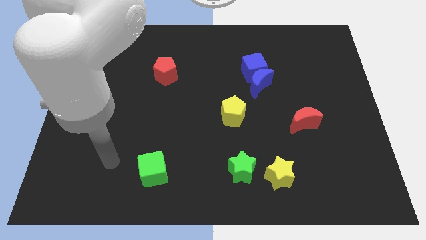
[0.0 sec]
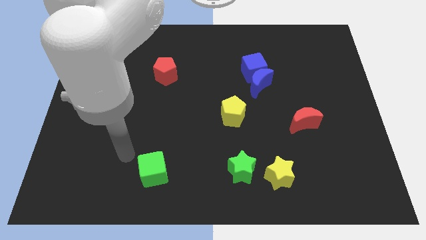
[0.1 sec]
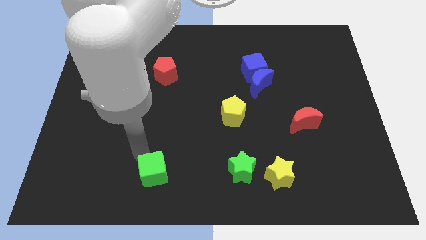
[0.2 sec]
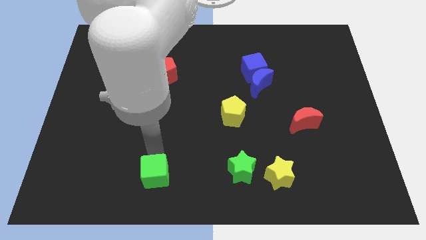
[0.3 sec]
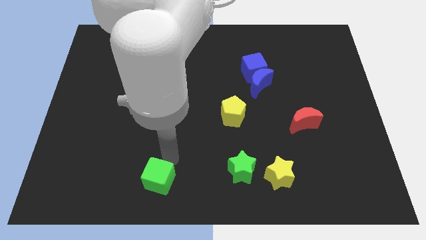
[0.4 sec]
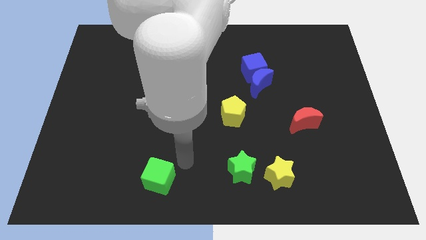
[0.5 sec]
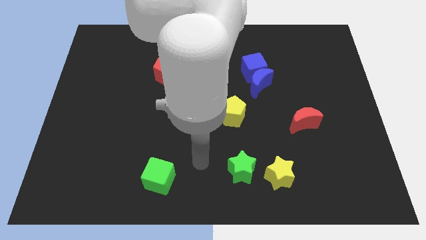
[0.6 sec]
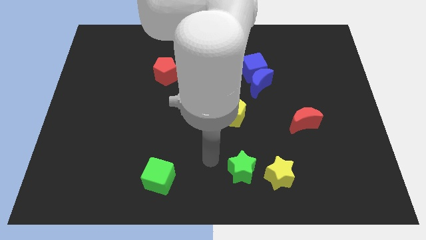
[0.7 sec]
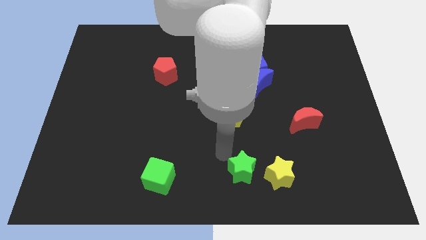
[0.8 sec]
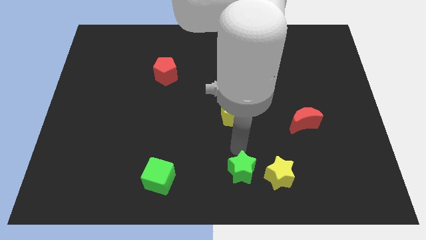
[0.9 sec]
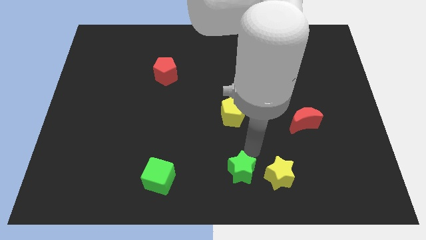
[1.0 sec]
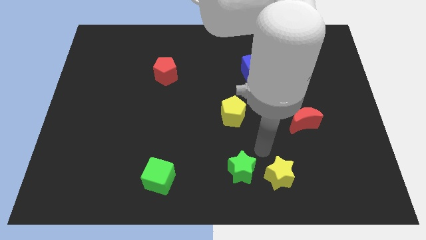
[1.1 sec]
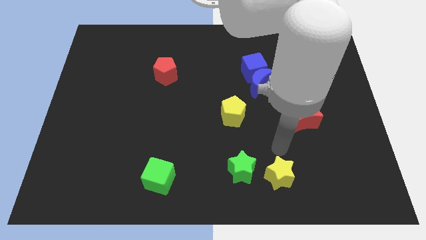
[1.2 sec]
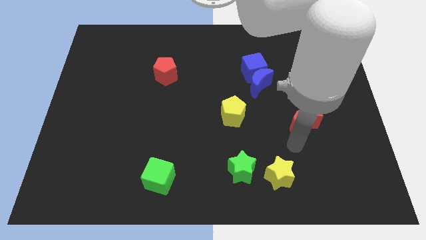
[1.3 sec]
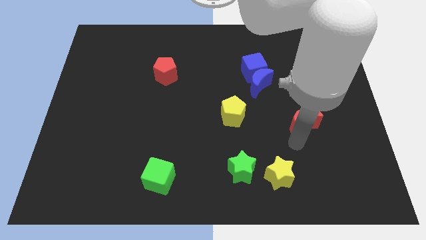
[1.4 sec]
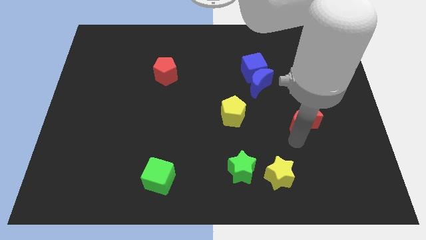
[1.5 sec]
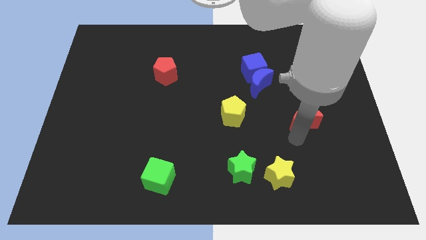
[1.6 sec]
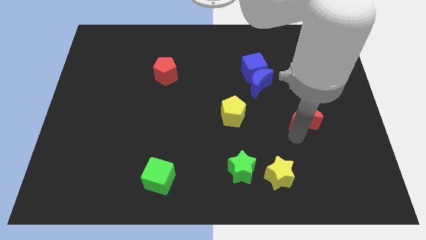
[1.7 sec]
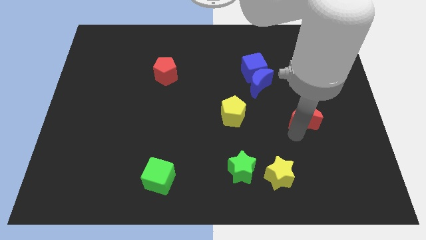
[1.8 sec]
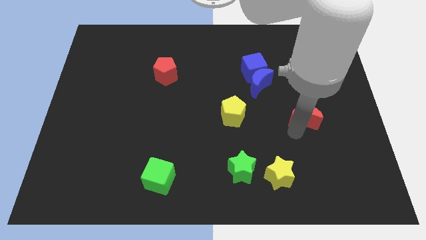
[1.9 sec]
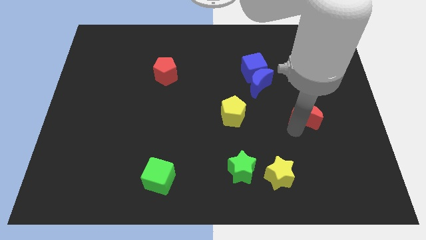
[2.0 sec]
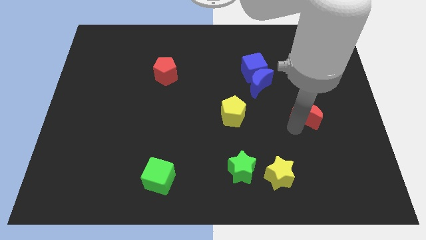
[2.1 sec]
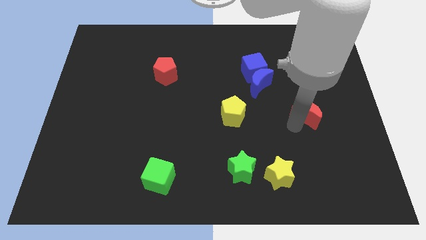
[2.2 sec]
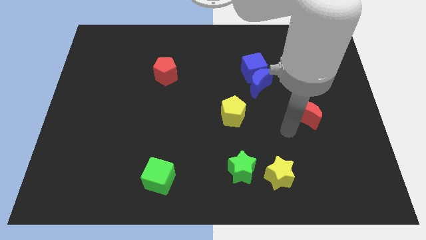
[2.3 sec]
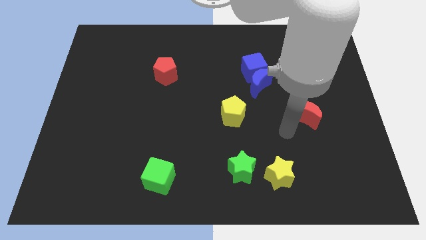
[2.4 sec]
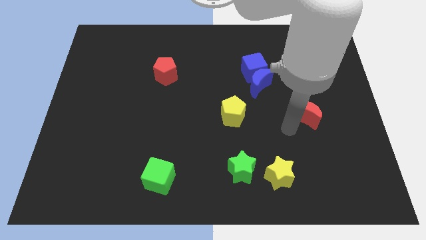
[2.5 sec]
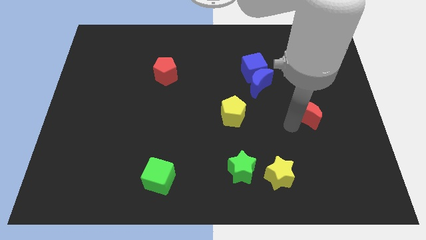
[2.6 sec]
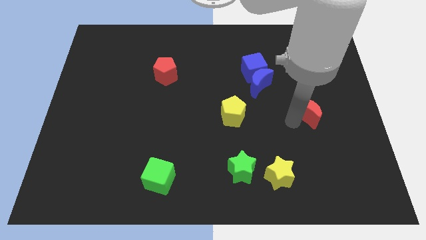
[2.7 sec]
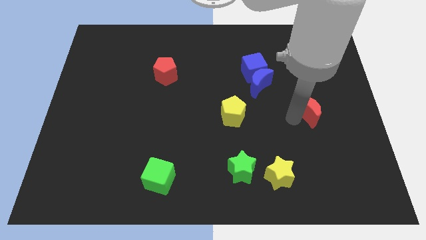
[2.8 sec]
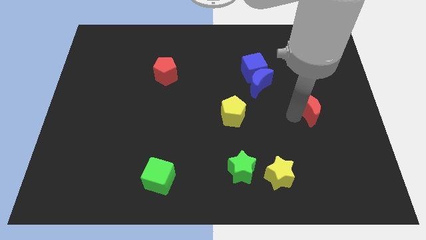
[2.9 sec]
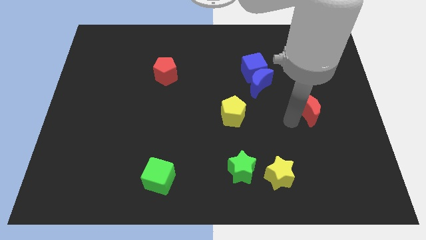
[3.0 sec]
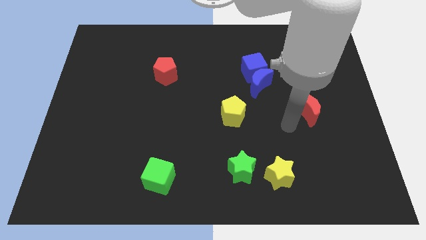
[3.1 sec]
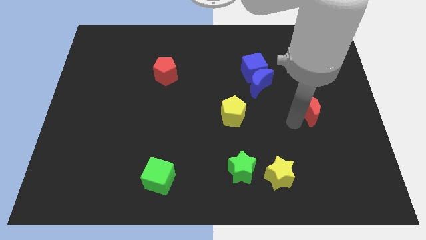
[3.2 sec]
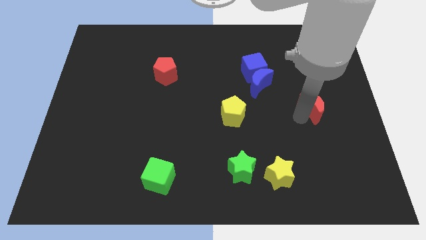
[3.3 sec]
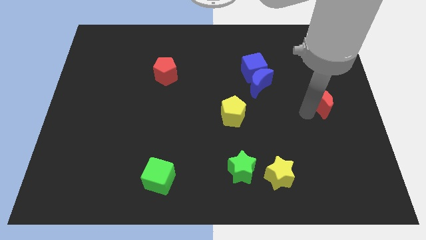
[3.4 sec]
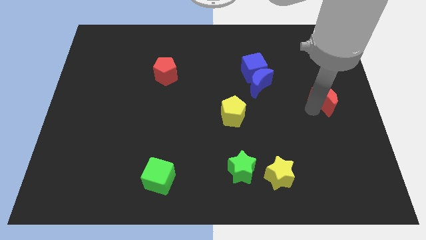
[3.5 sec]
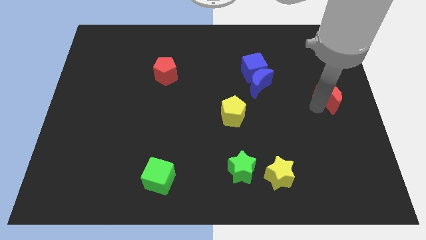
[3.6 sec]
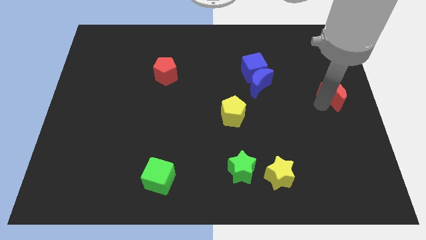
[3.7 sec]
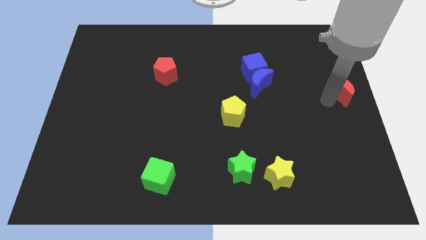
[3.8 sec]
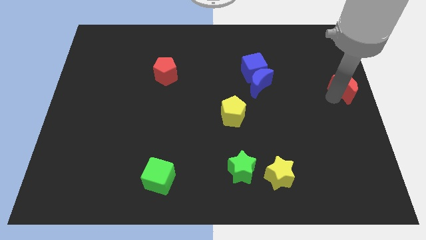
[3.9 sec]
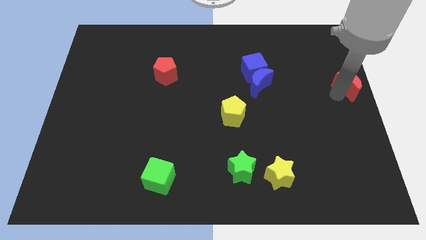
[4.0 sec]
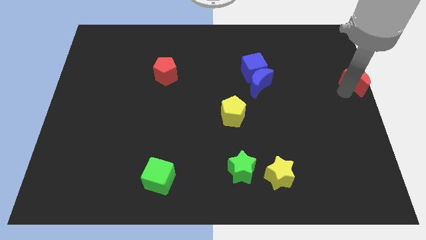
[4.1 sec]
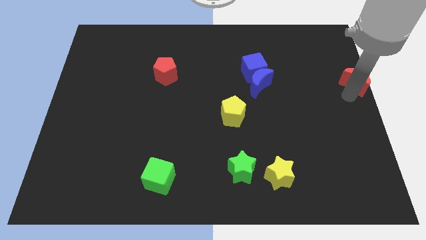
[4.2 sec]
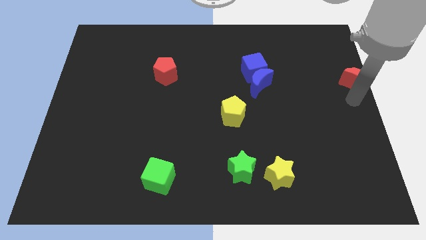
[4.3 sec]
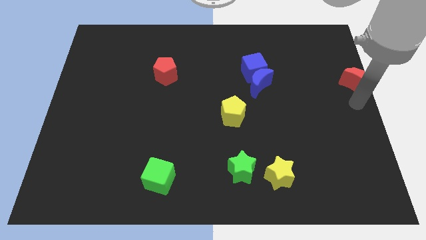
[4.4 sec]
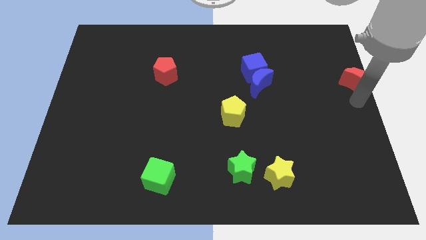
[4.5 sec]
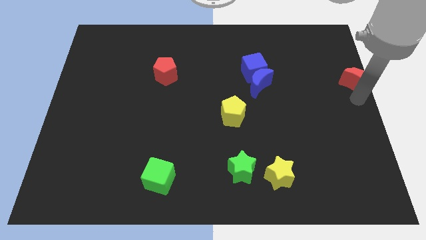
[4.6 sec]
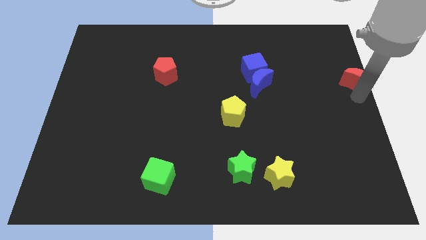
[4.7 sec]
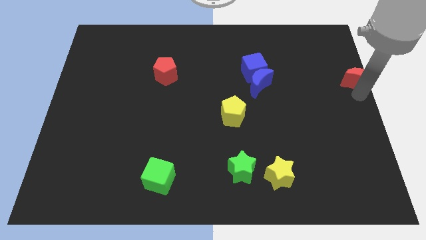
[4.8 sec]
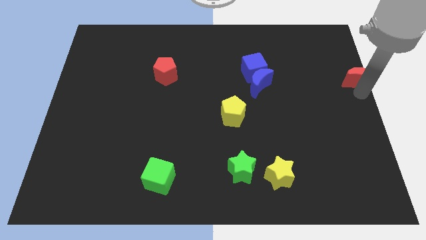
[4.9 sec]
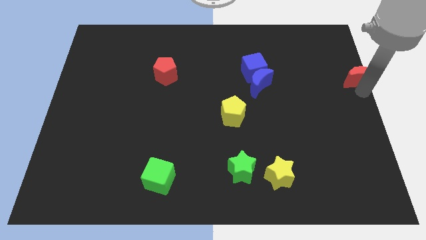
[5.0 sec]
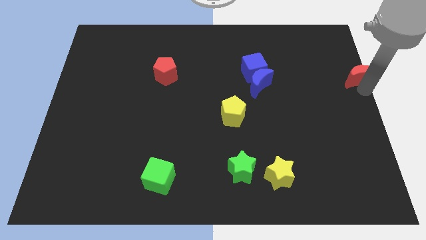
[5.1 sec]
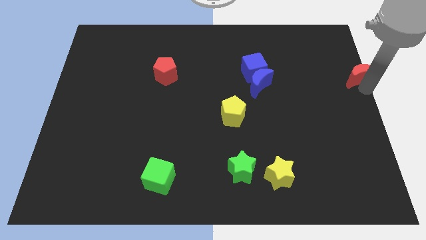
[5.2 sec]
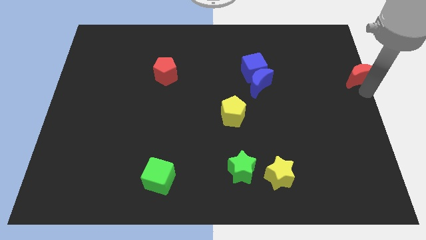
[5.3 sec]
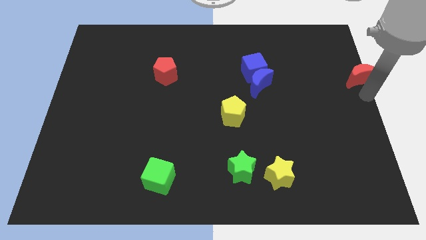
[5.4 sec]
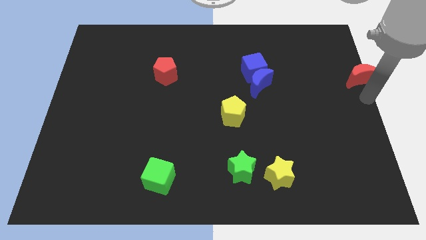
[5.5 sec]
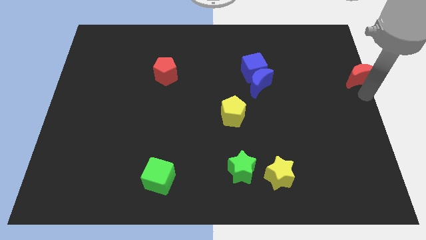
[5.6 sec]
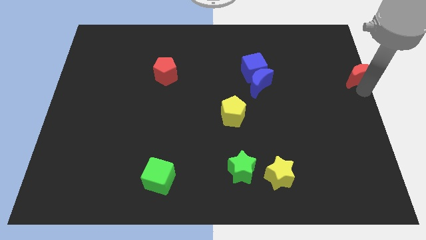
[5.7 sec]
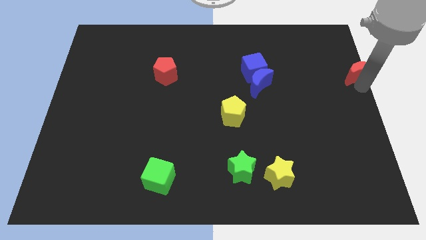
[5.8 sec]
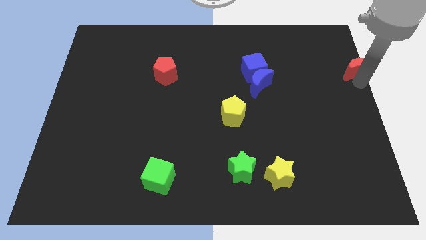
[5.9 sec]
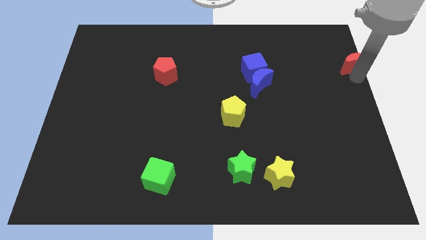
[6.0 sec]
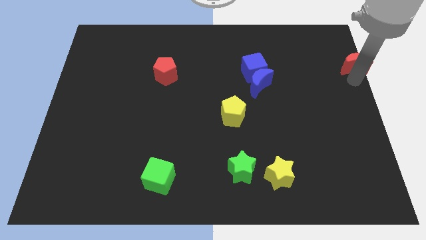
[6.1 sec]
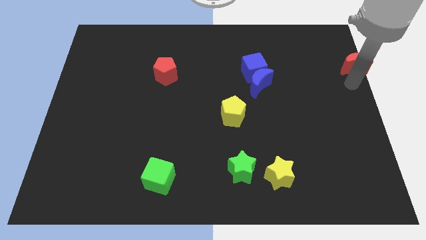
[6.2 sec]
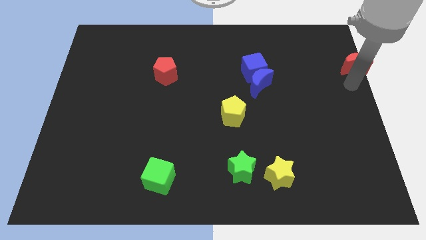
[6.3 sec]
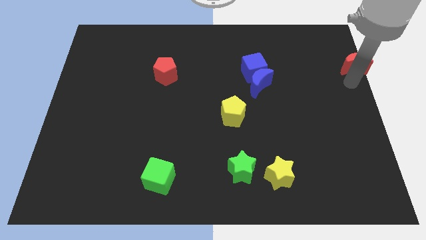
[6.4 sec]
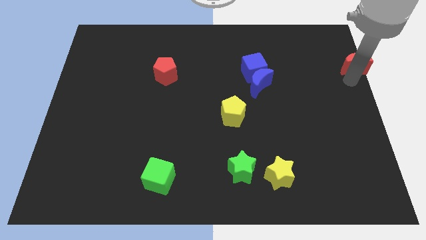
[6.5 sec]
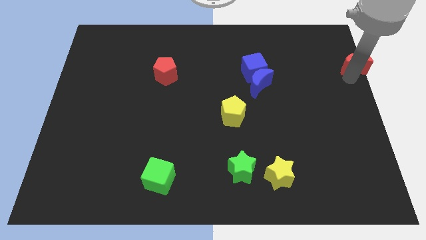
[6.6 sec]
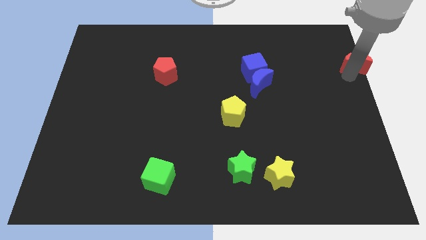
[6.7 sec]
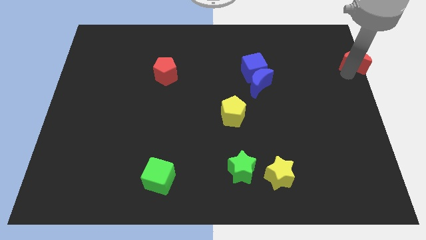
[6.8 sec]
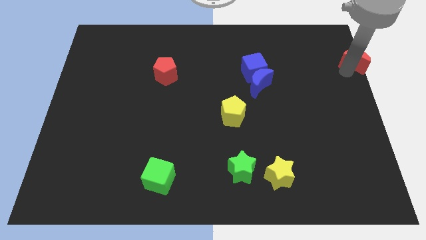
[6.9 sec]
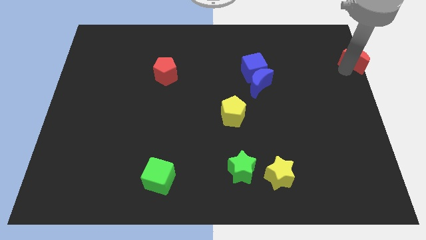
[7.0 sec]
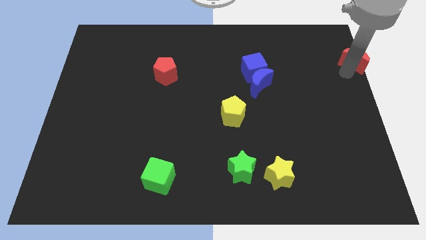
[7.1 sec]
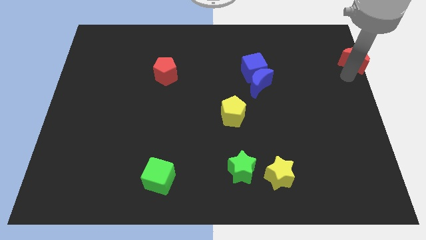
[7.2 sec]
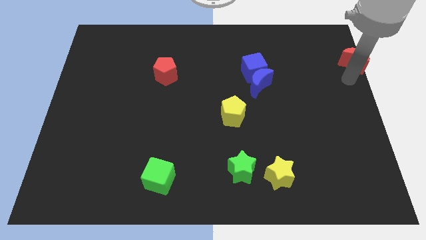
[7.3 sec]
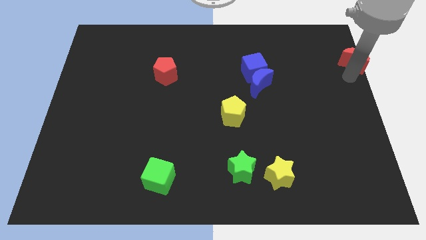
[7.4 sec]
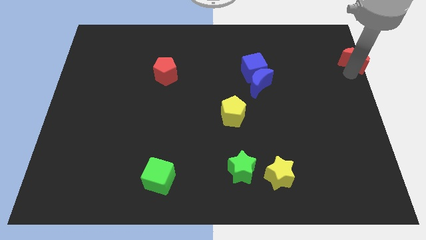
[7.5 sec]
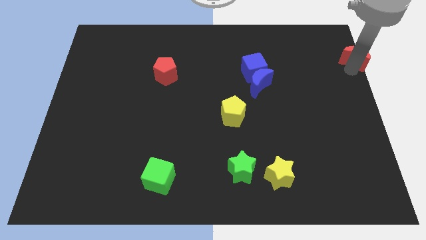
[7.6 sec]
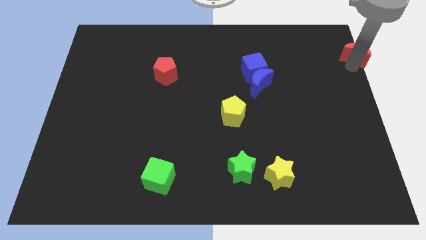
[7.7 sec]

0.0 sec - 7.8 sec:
push the red moon to the upper right corner

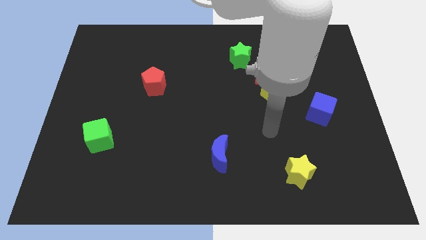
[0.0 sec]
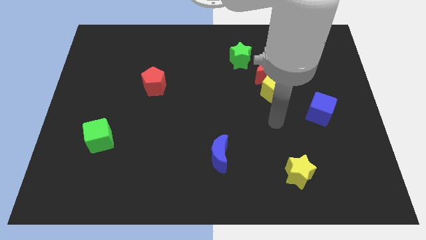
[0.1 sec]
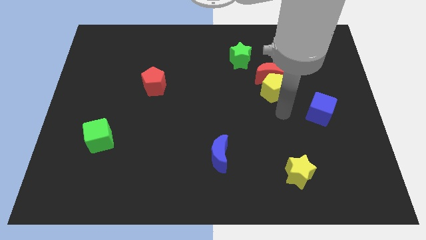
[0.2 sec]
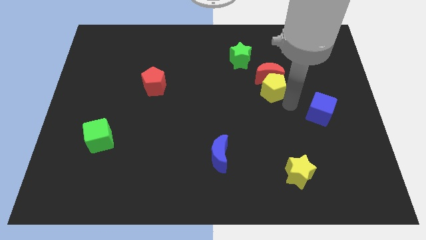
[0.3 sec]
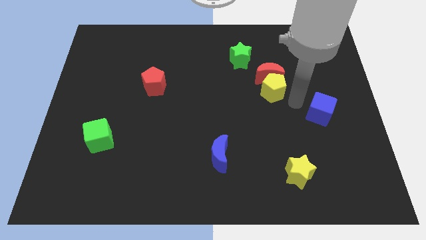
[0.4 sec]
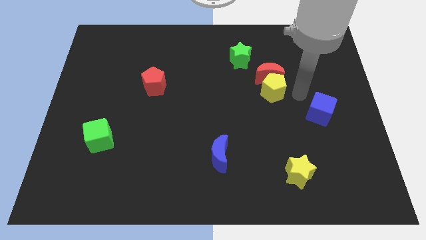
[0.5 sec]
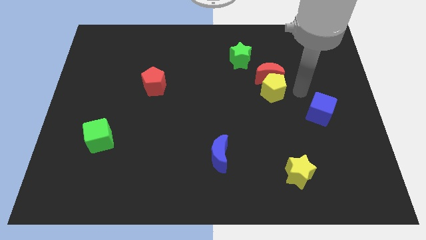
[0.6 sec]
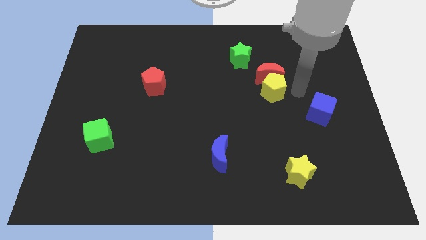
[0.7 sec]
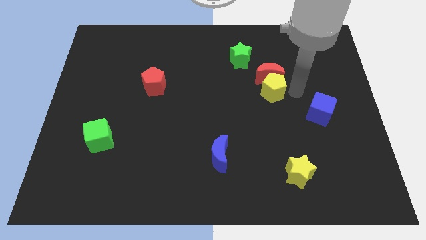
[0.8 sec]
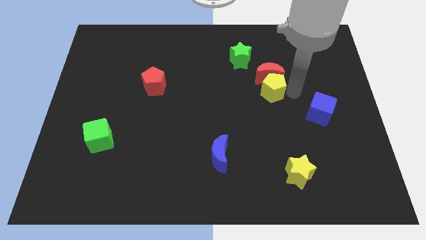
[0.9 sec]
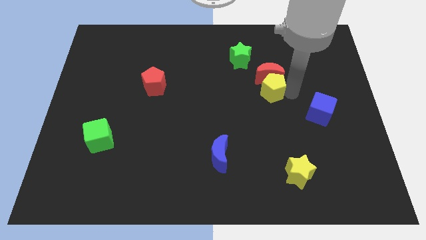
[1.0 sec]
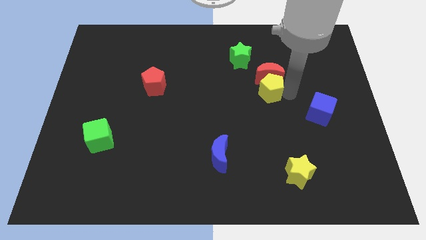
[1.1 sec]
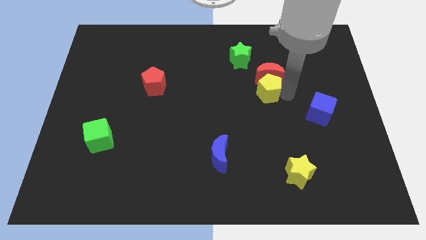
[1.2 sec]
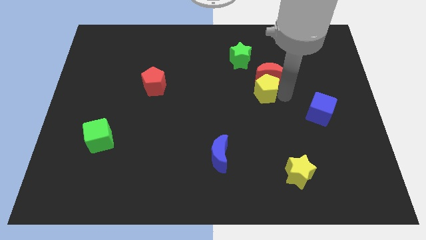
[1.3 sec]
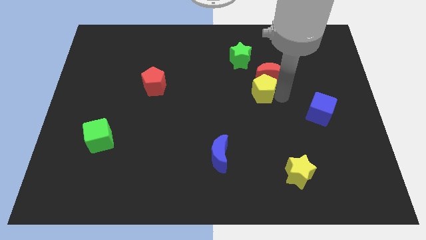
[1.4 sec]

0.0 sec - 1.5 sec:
move the yellow pentagon to the center
